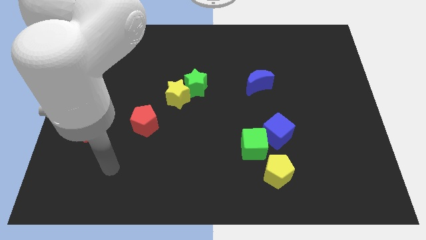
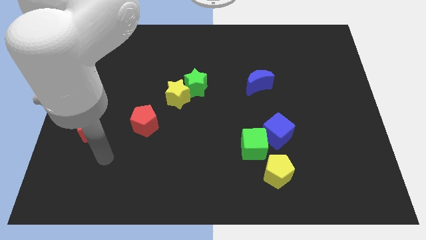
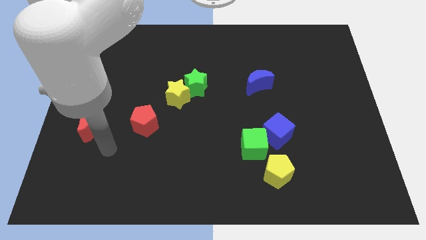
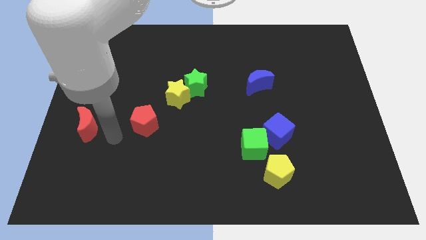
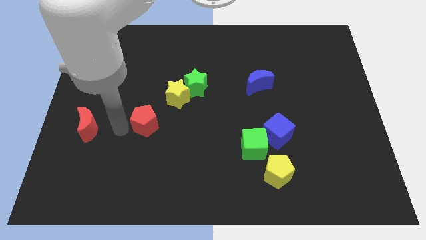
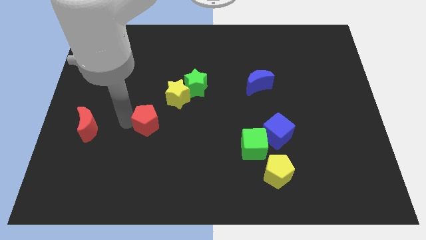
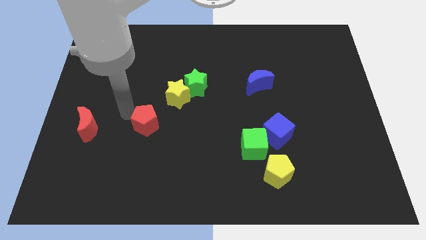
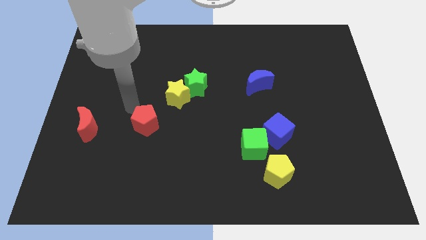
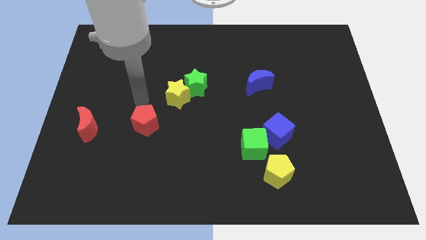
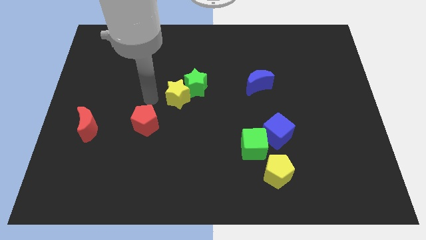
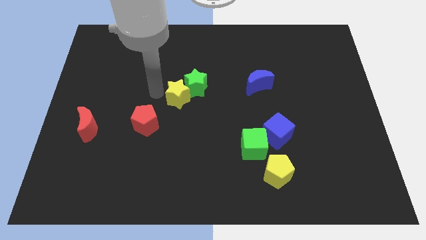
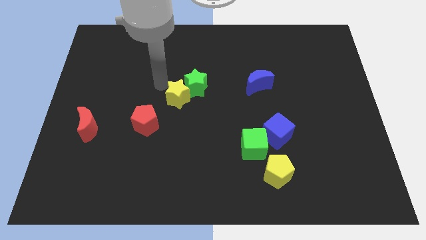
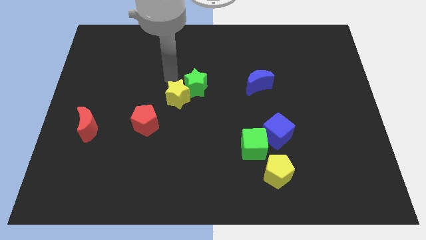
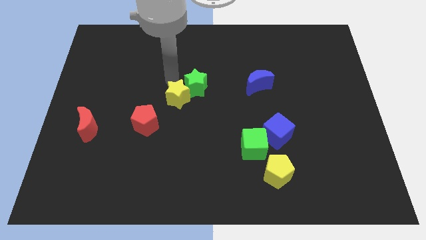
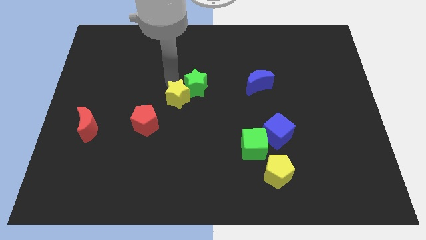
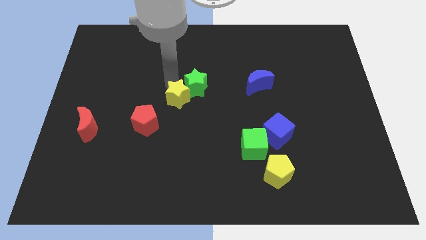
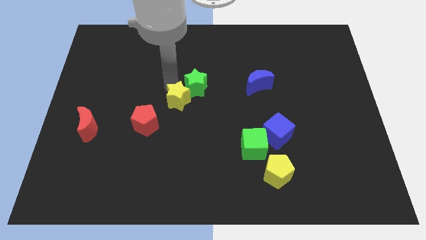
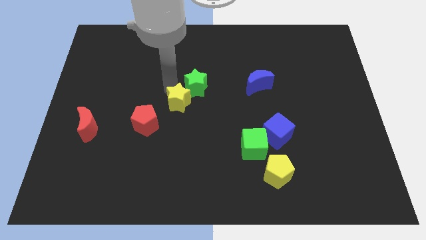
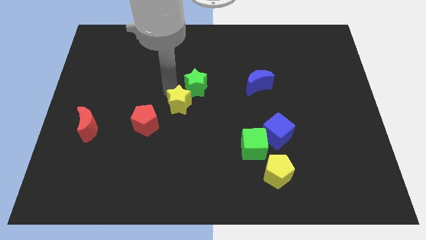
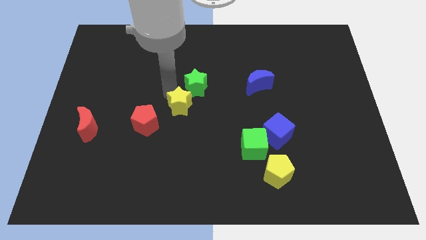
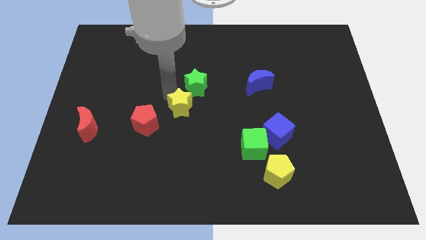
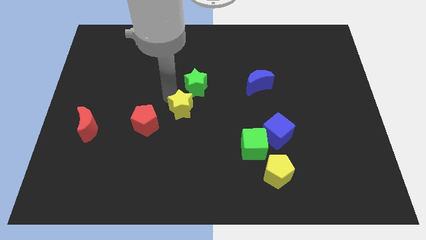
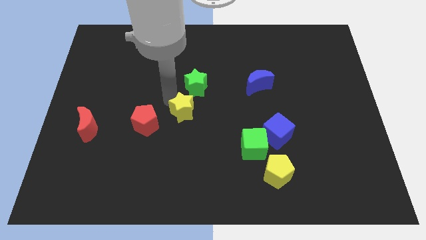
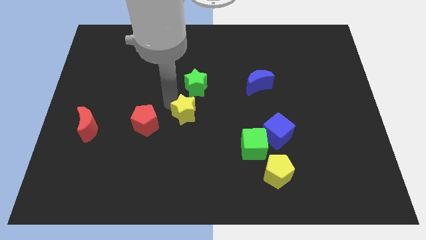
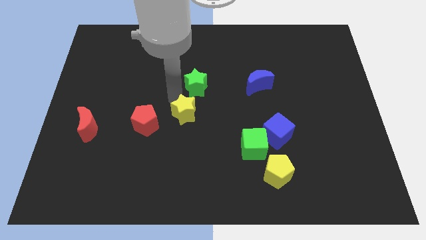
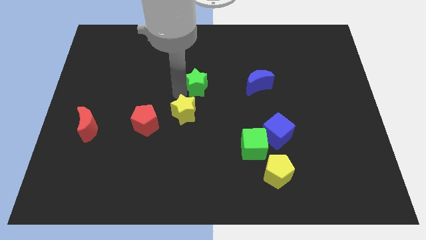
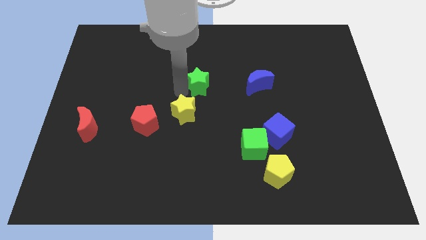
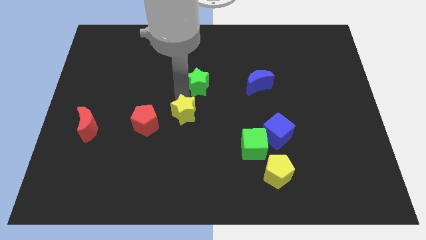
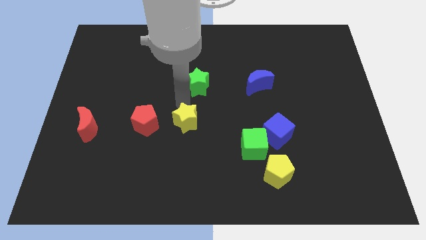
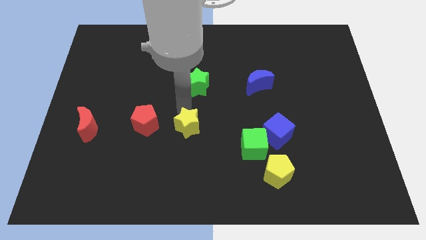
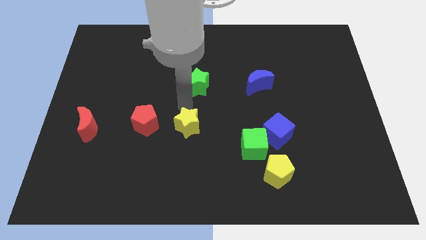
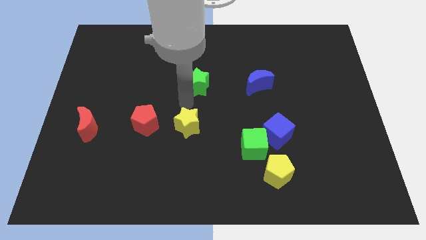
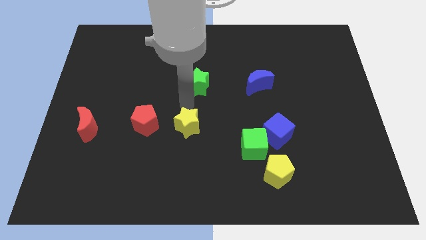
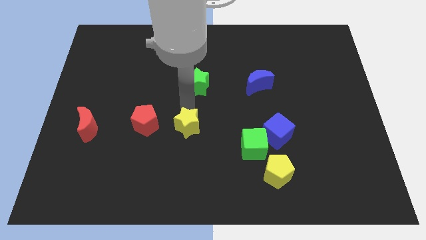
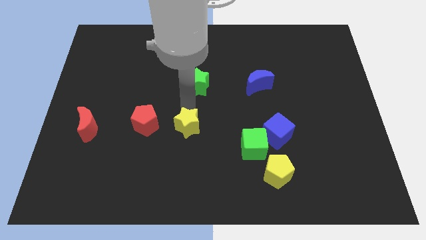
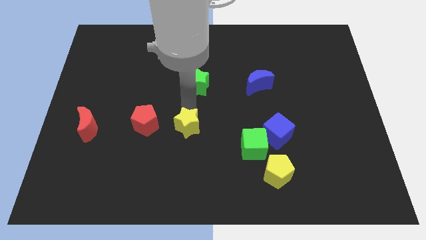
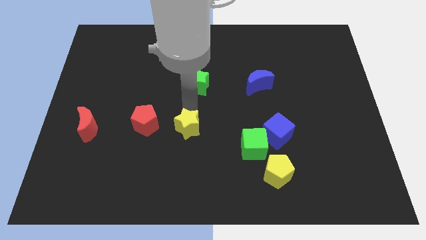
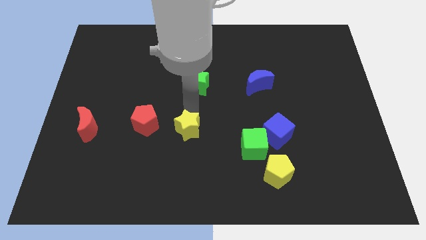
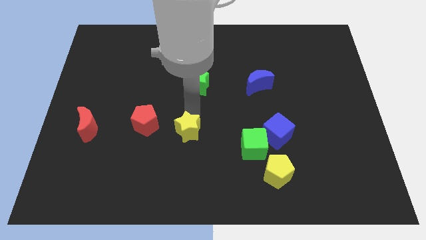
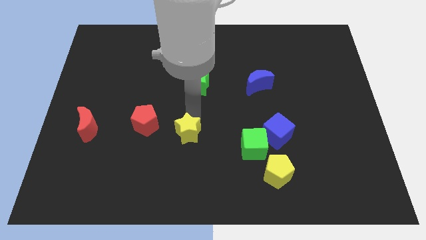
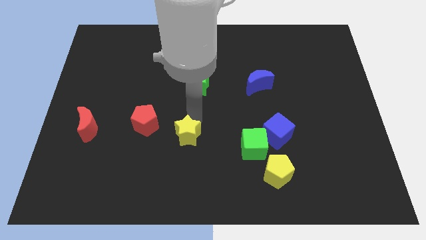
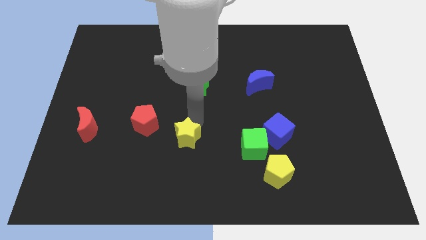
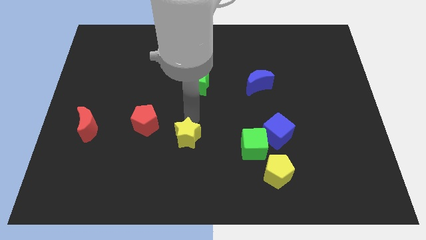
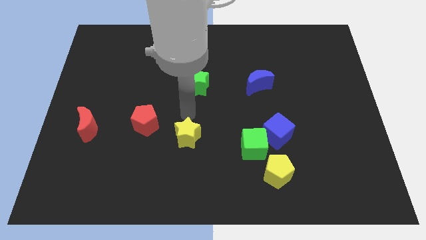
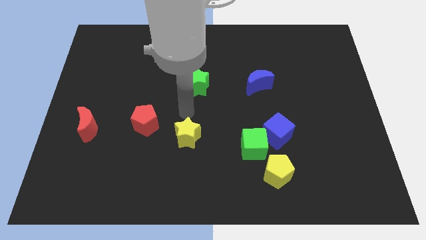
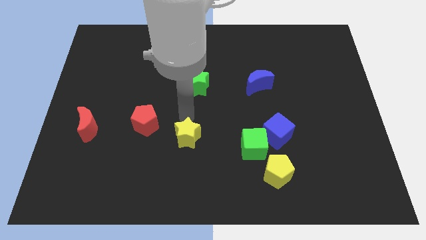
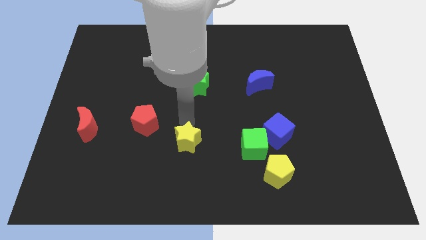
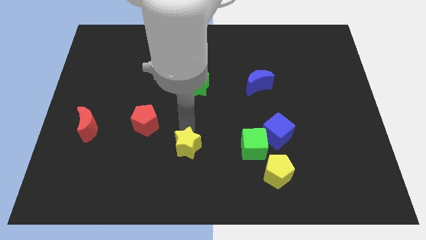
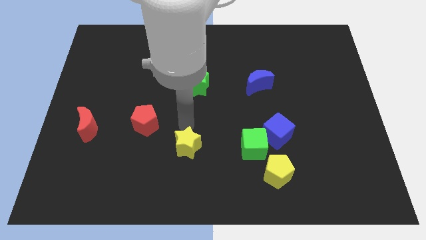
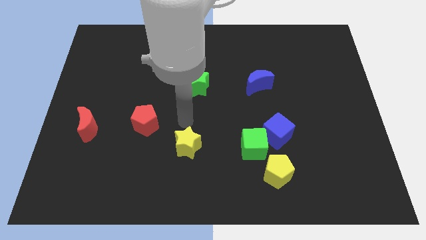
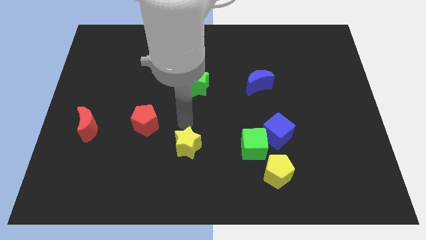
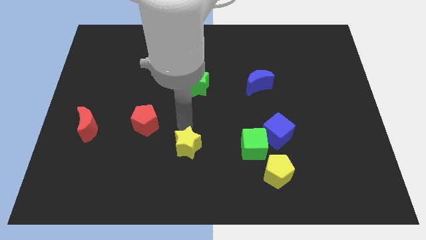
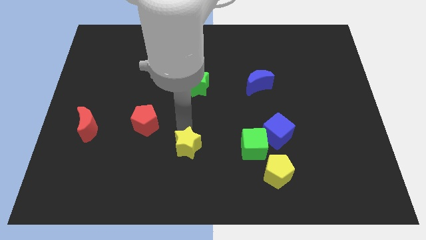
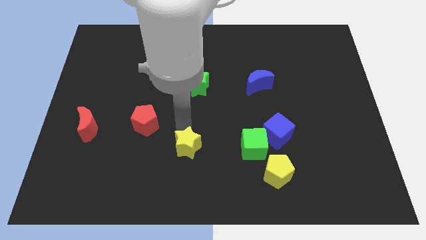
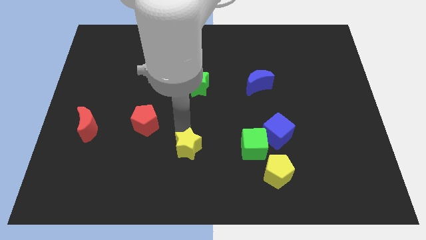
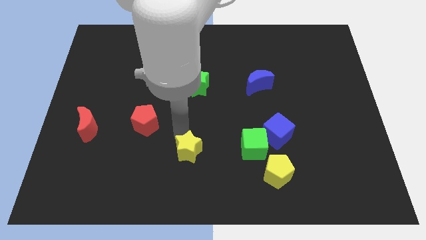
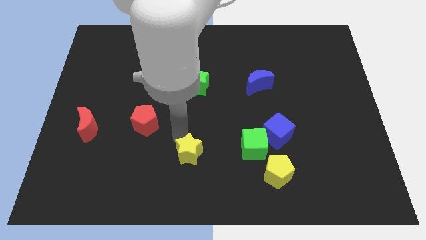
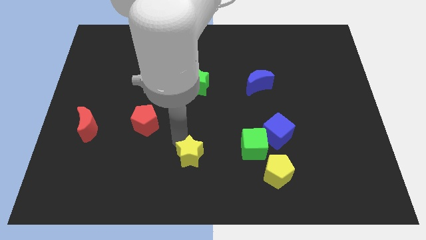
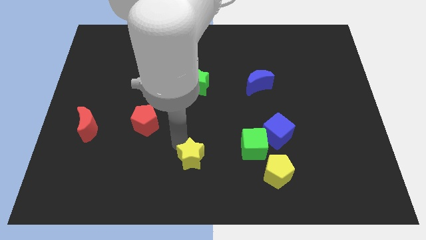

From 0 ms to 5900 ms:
slide the yellow star to the bottom

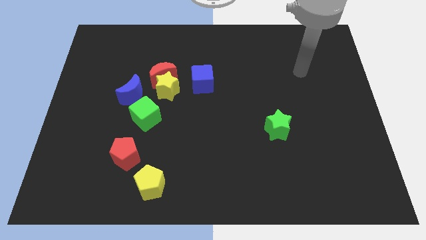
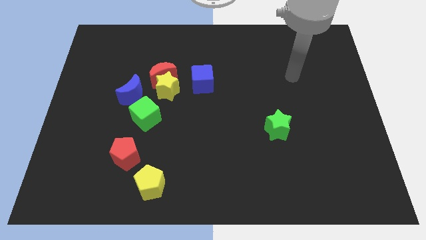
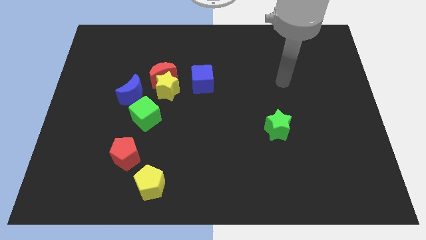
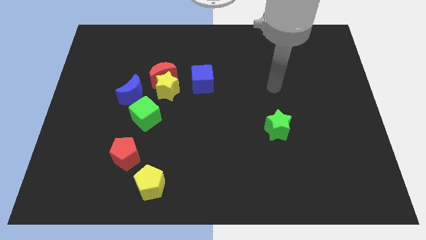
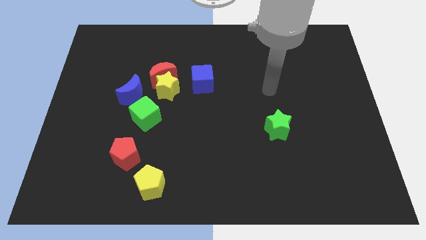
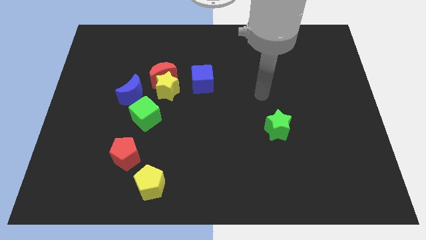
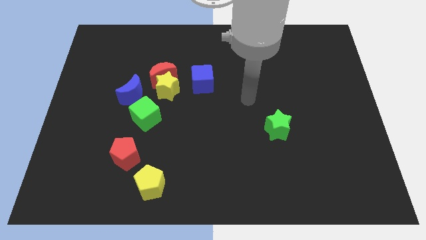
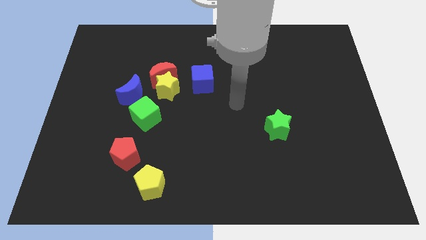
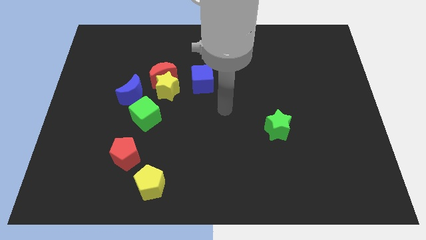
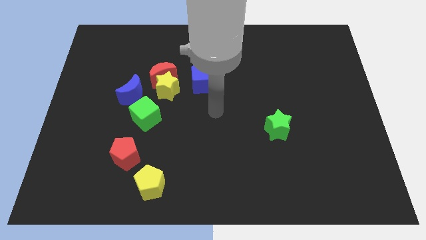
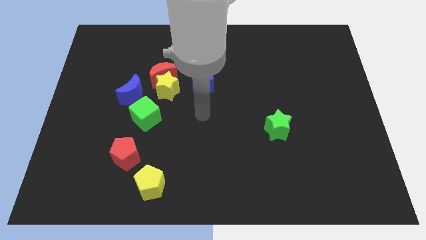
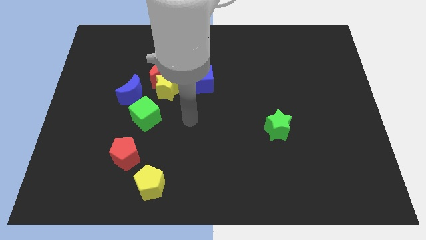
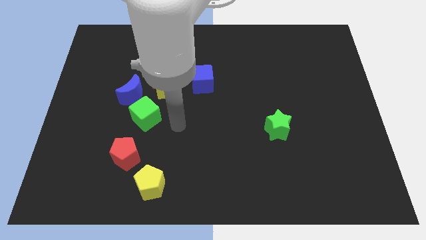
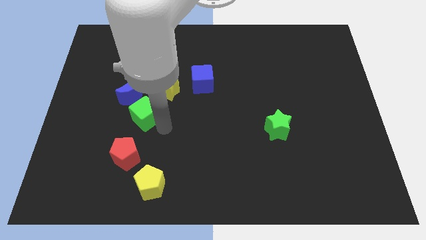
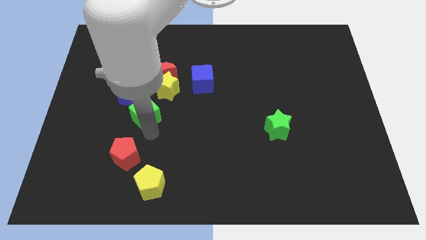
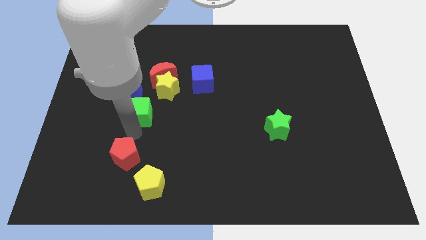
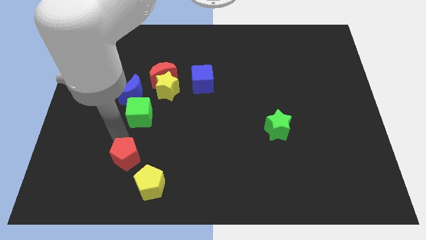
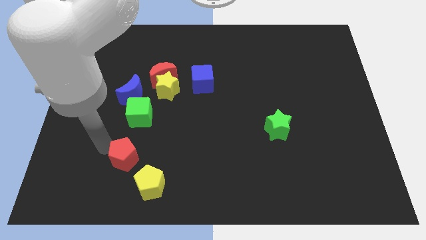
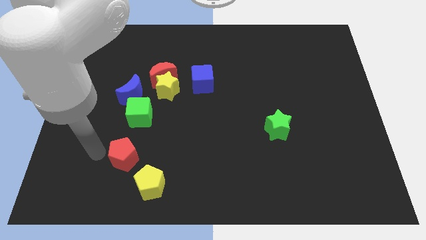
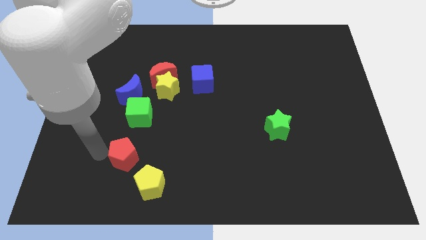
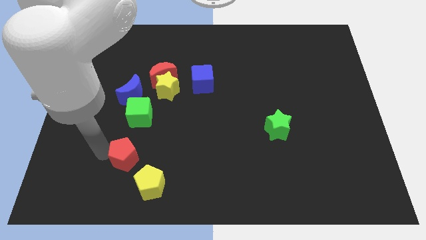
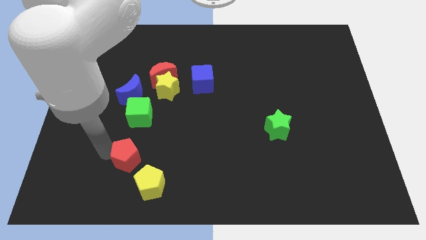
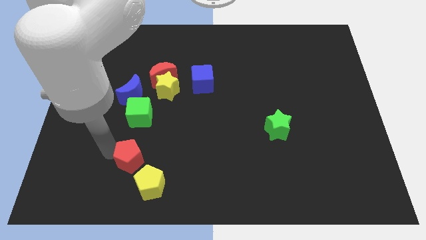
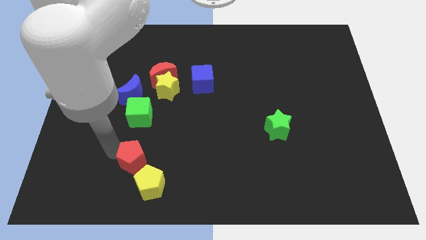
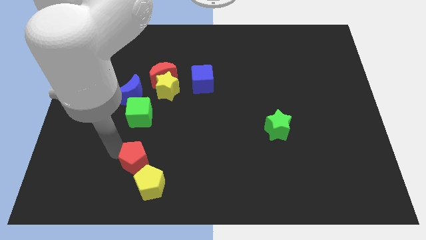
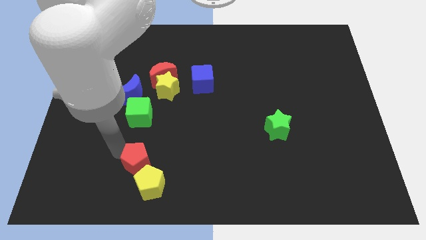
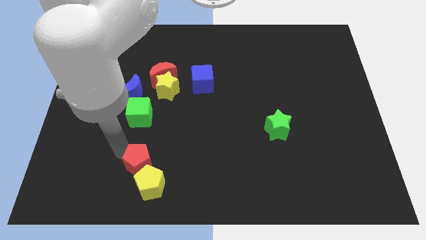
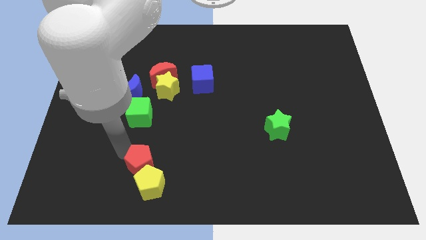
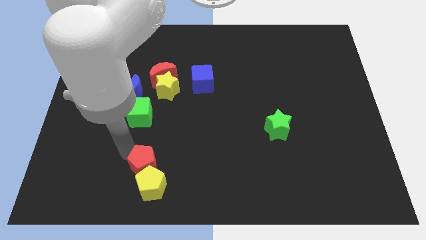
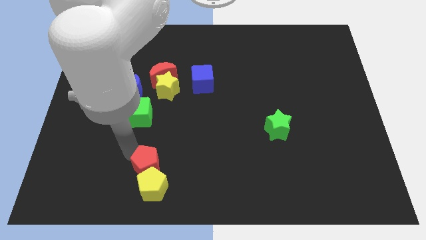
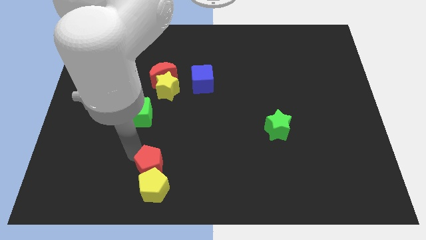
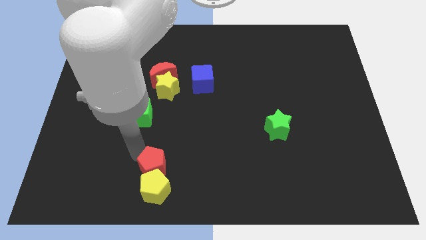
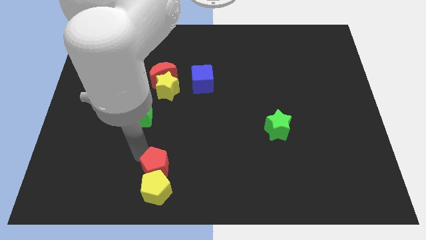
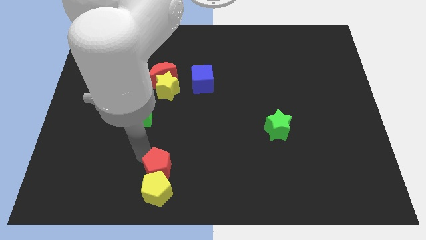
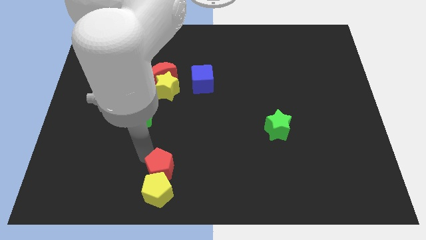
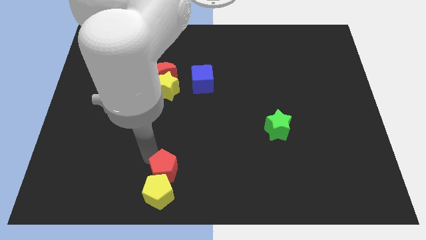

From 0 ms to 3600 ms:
slide the red pentagon to the bottom side
